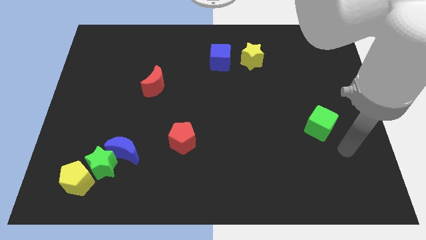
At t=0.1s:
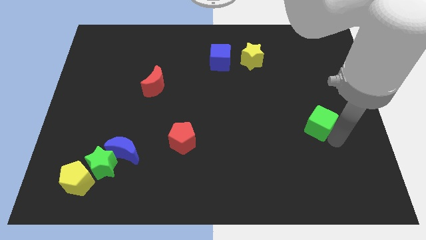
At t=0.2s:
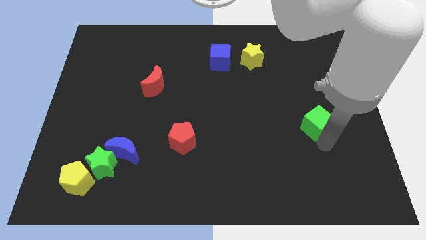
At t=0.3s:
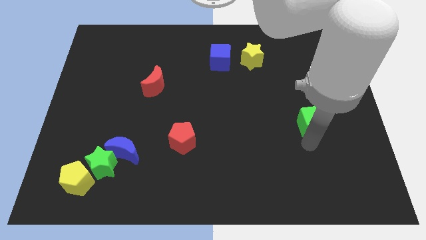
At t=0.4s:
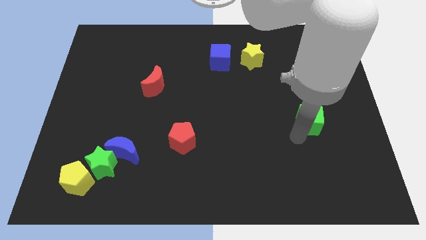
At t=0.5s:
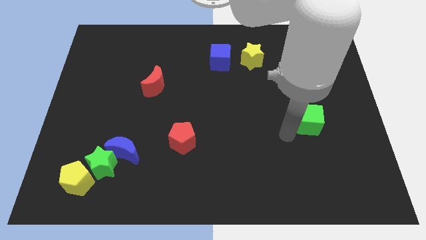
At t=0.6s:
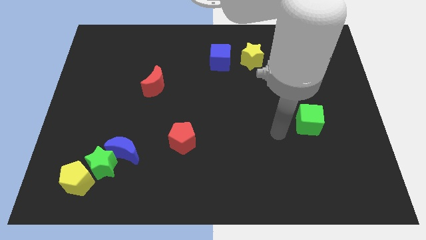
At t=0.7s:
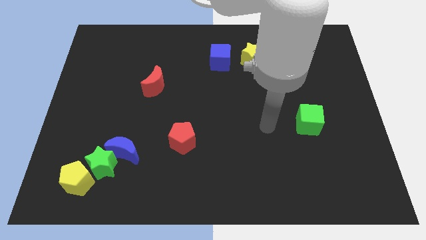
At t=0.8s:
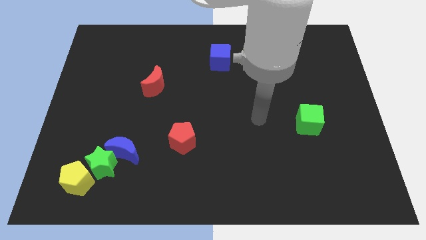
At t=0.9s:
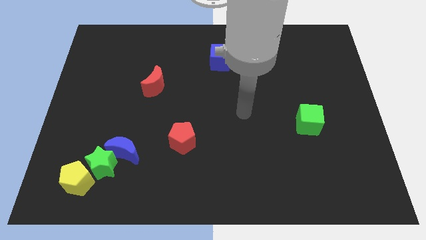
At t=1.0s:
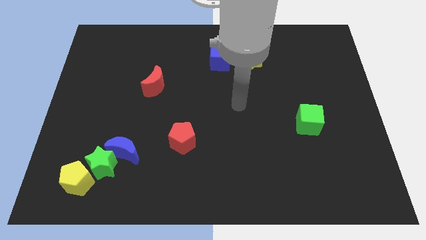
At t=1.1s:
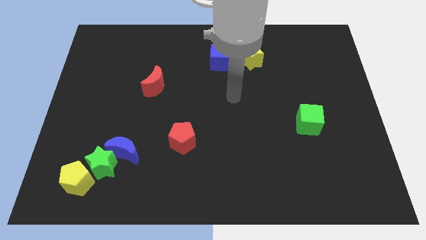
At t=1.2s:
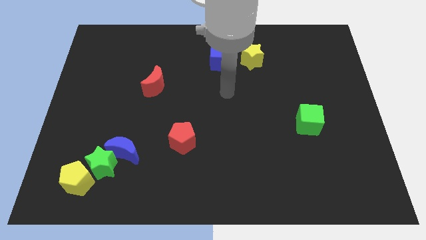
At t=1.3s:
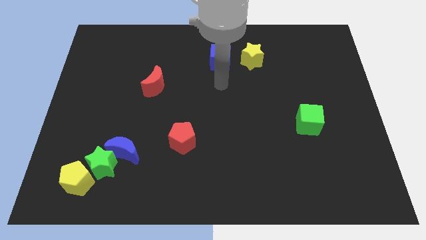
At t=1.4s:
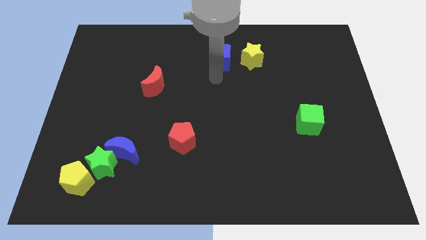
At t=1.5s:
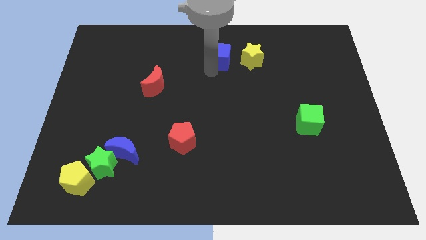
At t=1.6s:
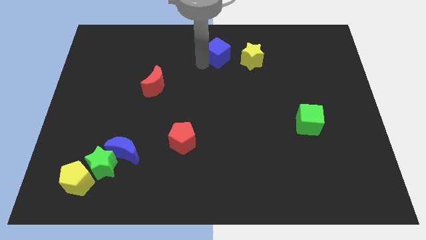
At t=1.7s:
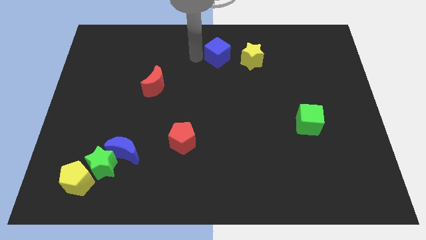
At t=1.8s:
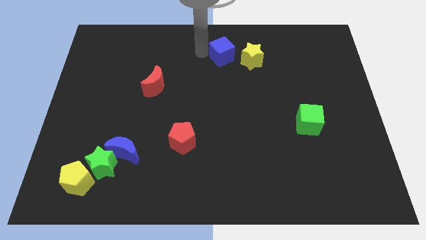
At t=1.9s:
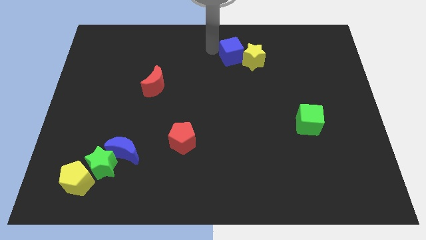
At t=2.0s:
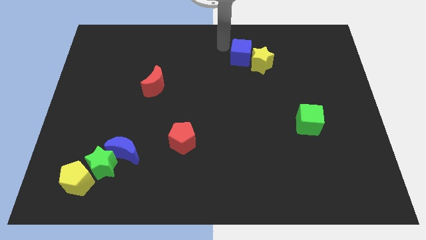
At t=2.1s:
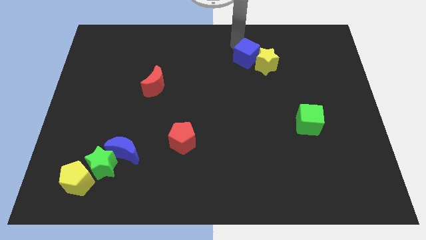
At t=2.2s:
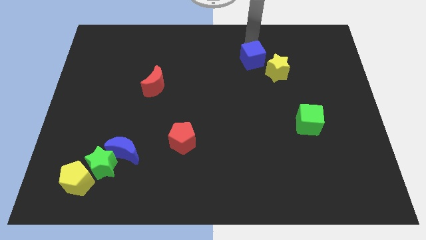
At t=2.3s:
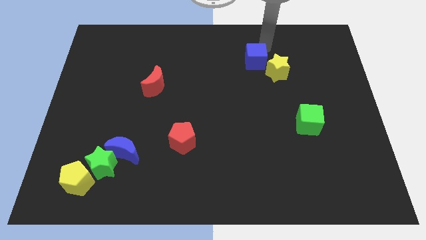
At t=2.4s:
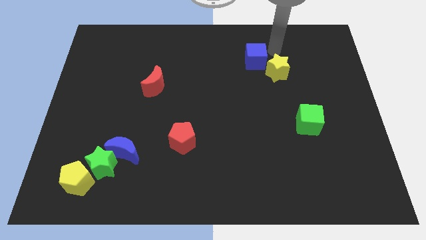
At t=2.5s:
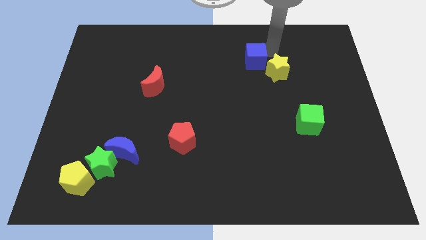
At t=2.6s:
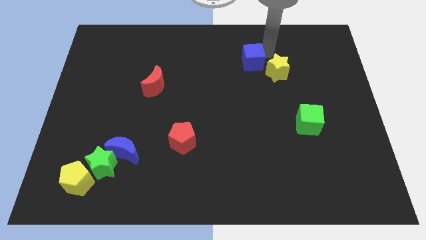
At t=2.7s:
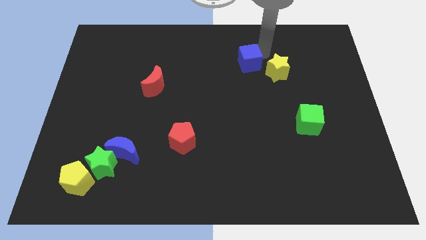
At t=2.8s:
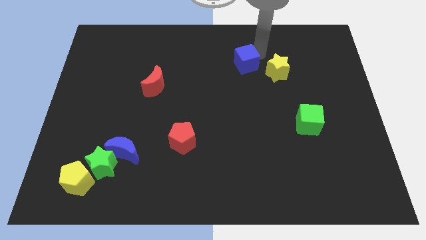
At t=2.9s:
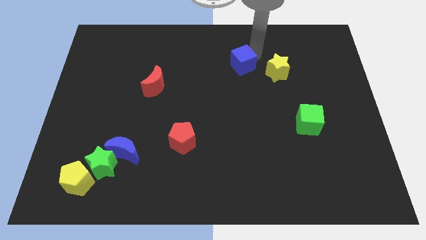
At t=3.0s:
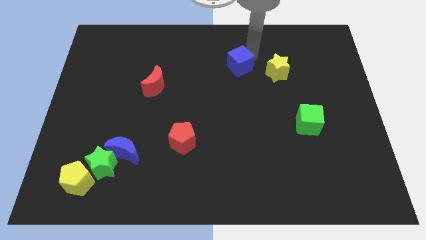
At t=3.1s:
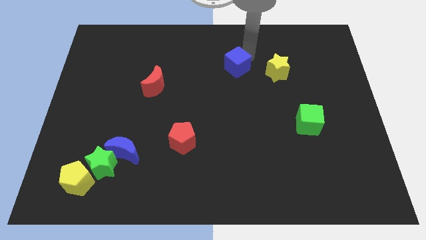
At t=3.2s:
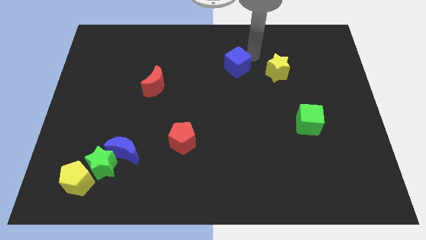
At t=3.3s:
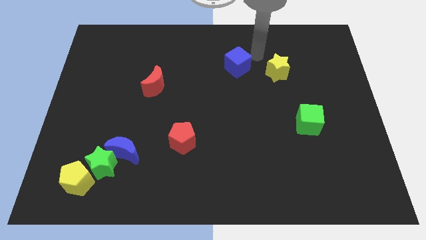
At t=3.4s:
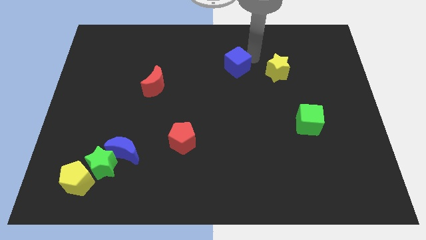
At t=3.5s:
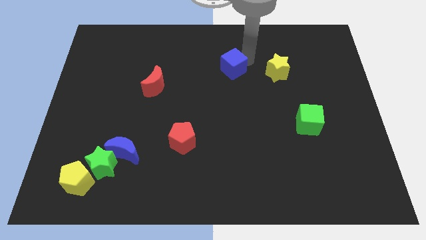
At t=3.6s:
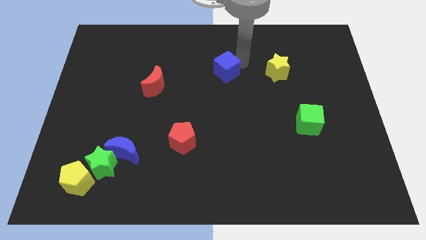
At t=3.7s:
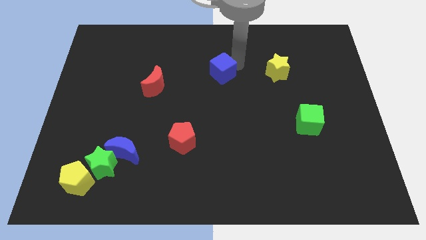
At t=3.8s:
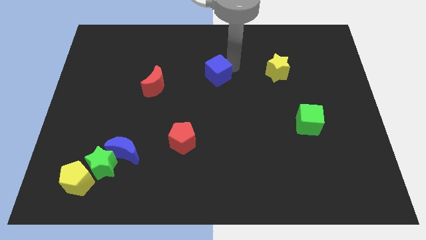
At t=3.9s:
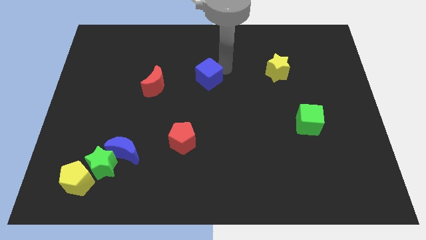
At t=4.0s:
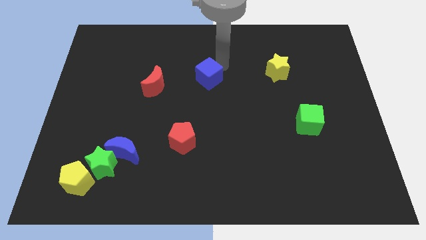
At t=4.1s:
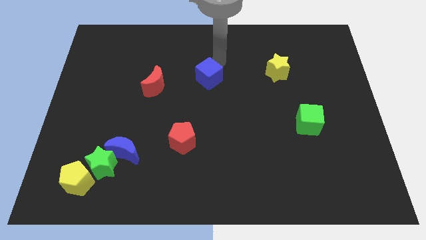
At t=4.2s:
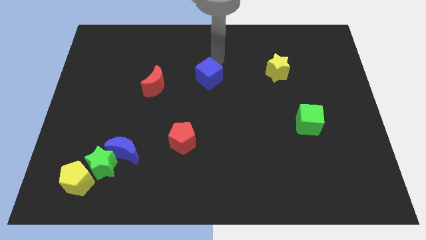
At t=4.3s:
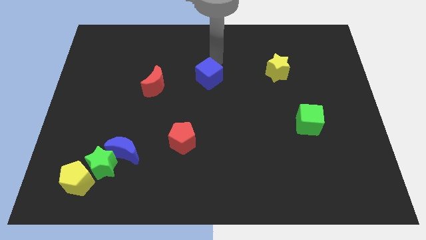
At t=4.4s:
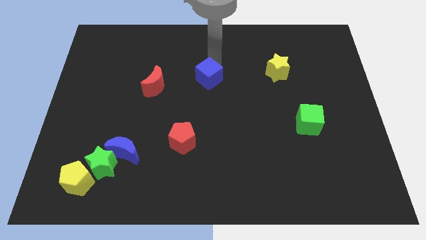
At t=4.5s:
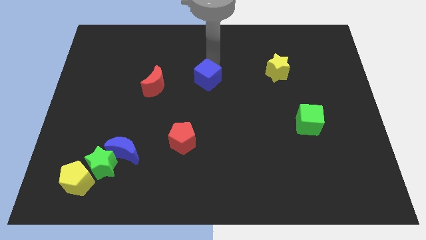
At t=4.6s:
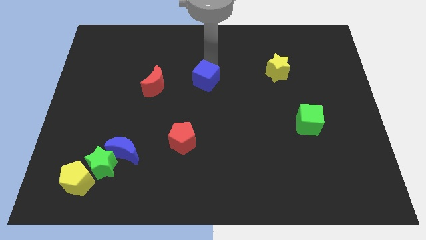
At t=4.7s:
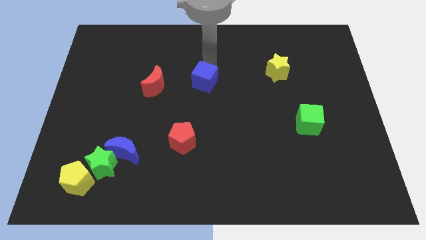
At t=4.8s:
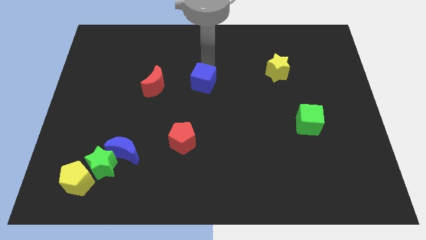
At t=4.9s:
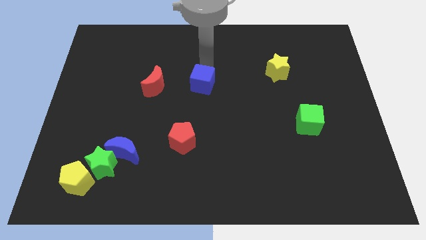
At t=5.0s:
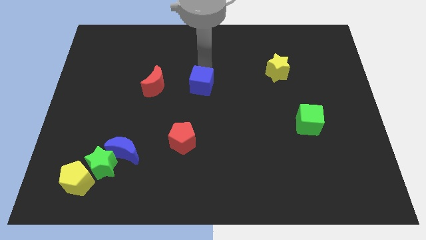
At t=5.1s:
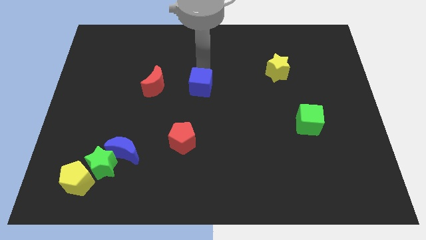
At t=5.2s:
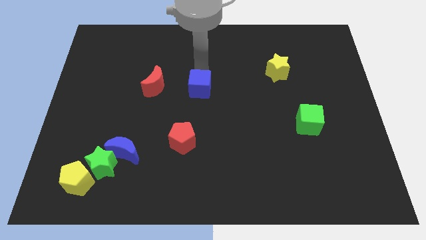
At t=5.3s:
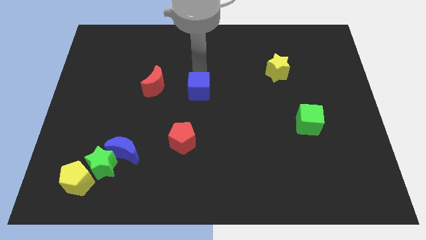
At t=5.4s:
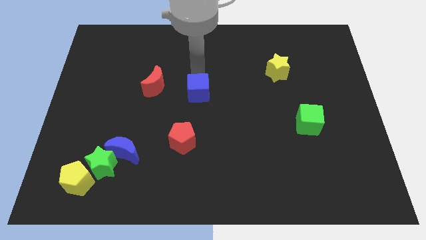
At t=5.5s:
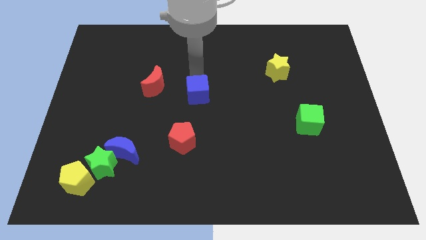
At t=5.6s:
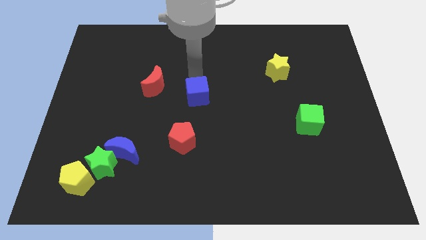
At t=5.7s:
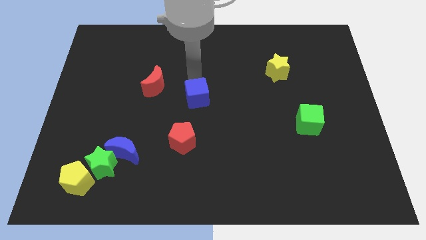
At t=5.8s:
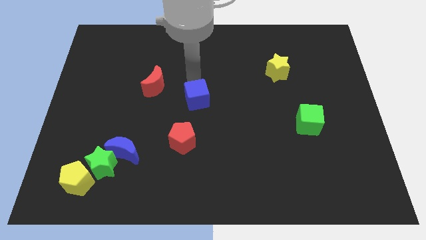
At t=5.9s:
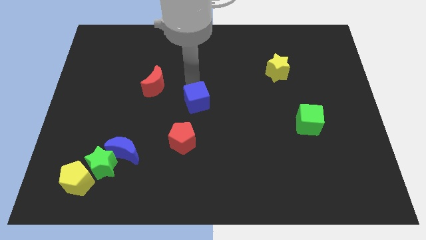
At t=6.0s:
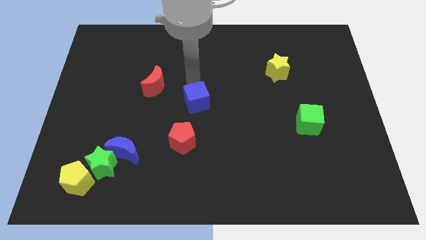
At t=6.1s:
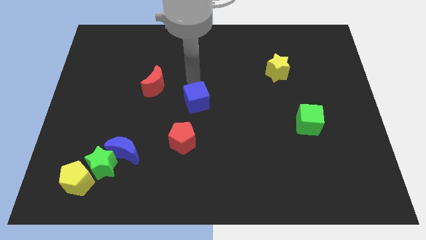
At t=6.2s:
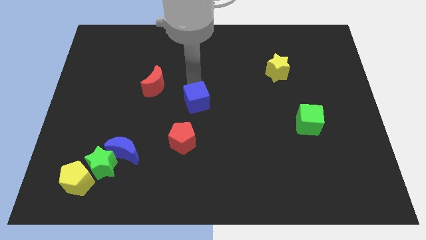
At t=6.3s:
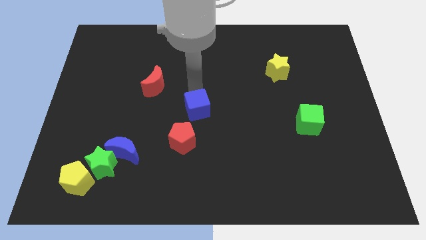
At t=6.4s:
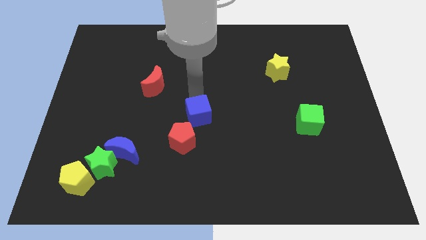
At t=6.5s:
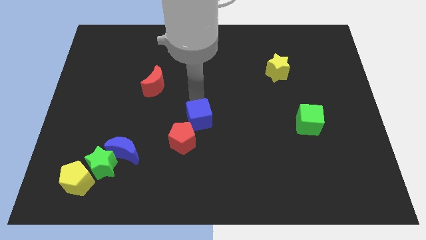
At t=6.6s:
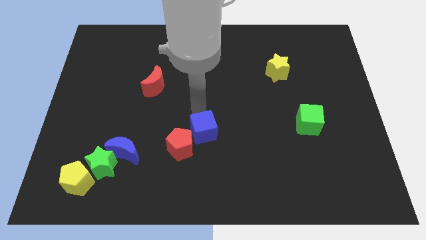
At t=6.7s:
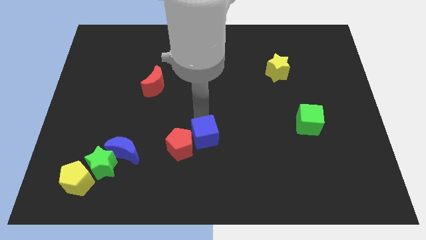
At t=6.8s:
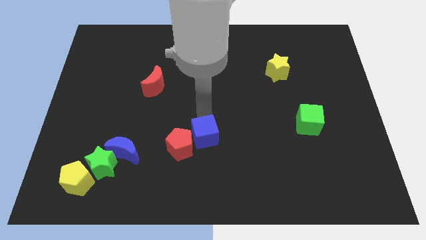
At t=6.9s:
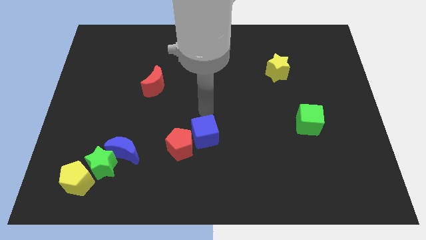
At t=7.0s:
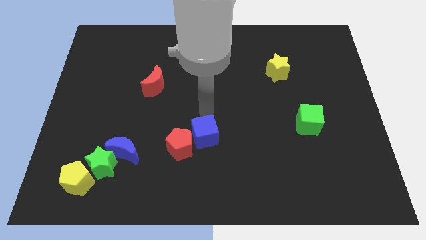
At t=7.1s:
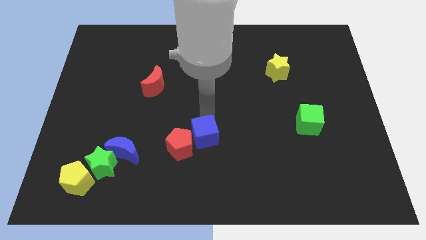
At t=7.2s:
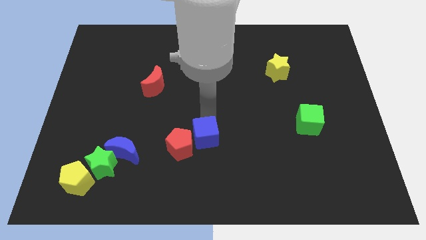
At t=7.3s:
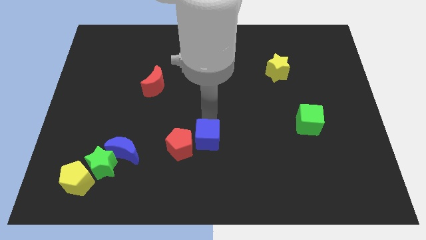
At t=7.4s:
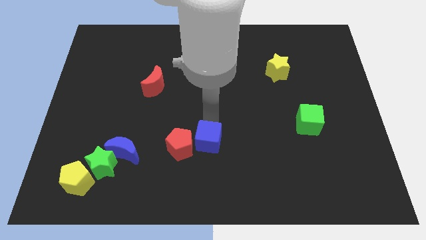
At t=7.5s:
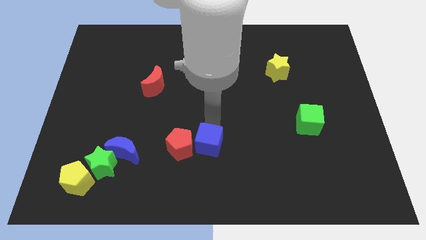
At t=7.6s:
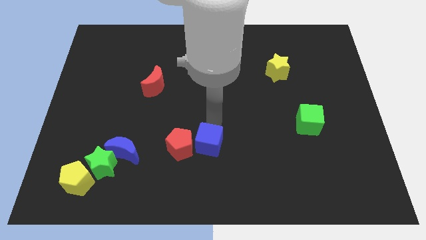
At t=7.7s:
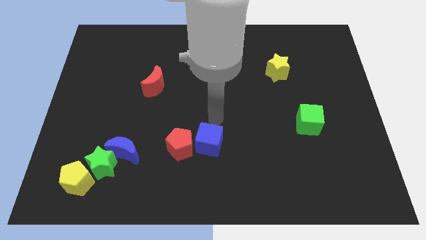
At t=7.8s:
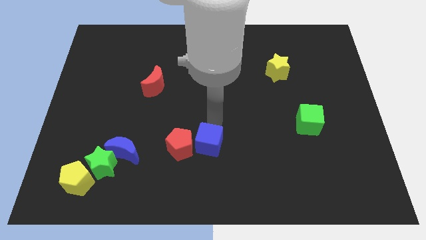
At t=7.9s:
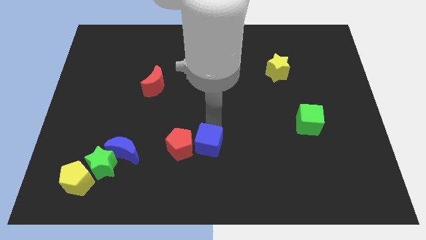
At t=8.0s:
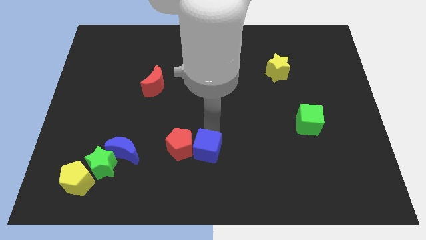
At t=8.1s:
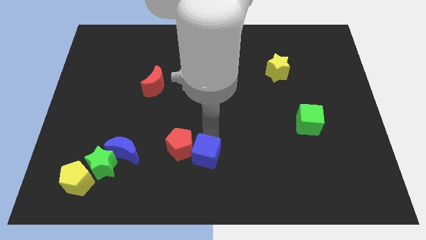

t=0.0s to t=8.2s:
put the blue cube to the bottom side
